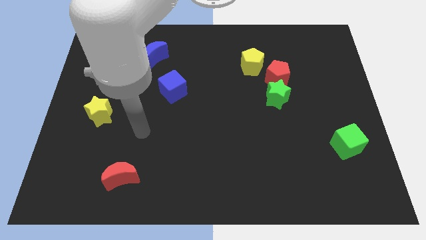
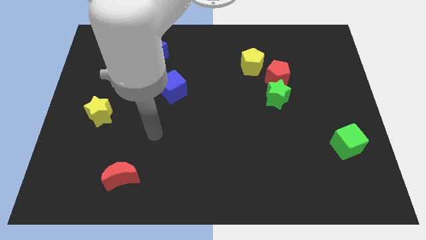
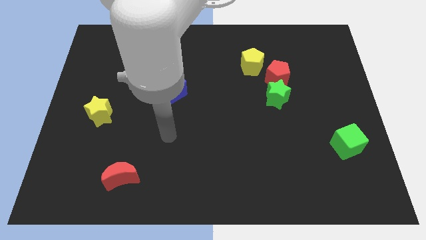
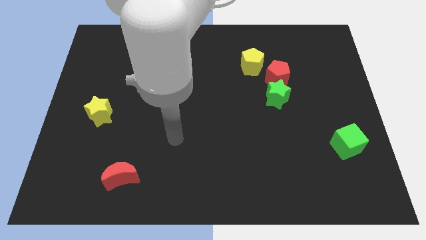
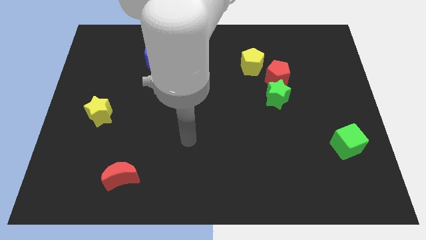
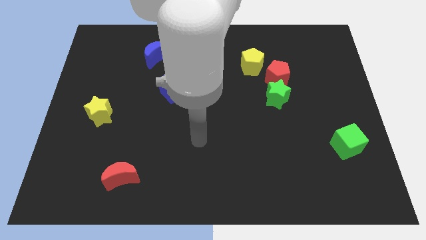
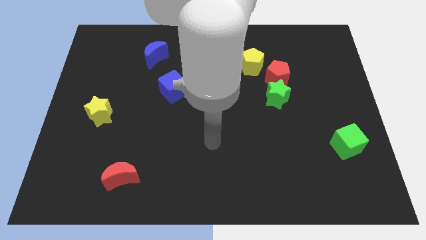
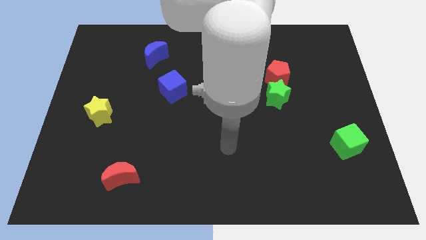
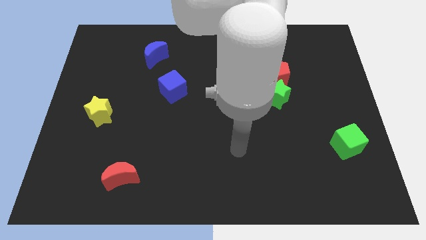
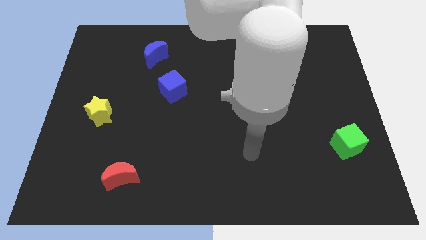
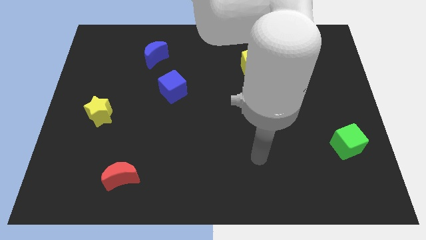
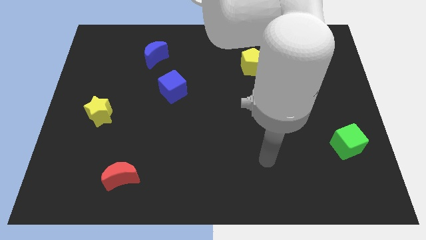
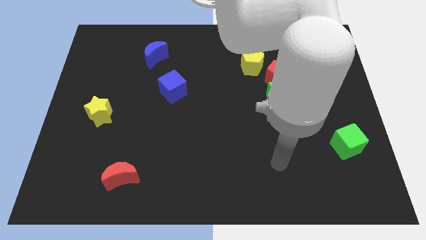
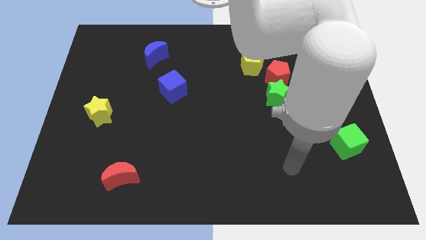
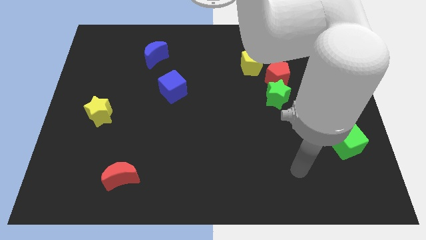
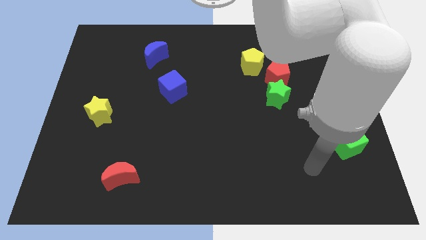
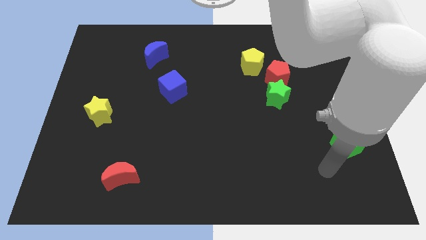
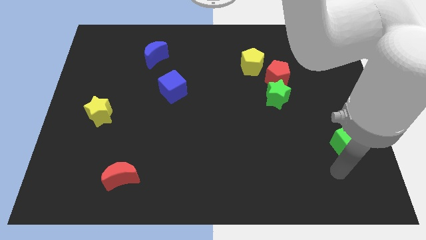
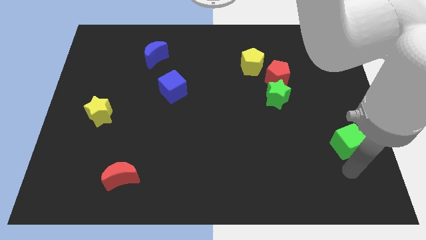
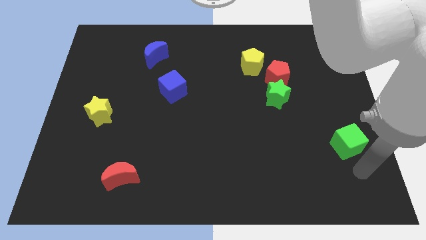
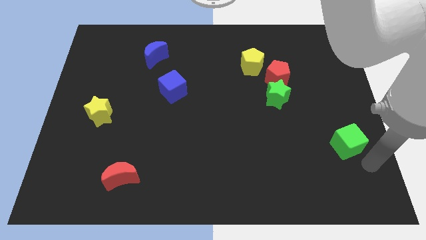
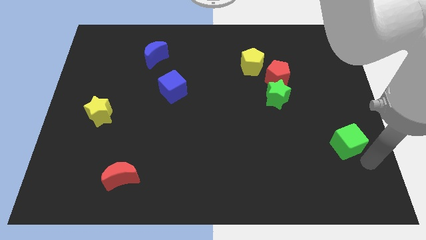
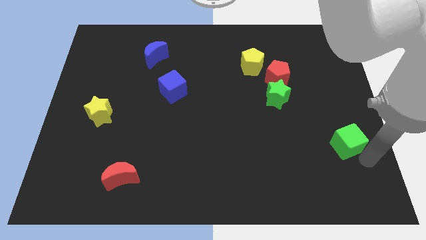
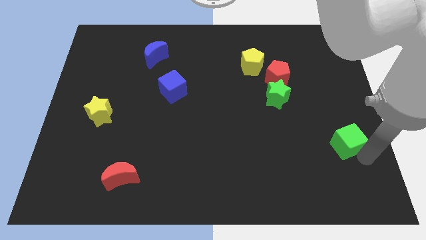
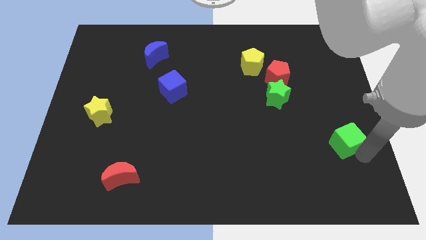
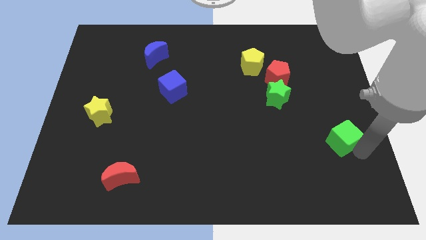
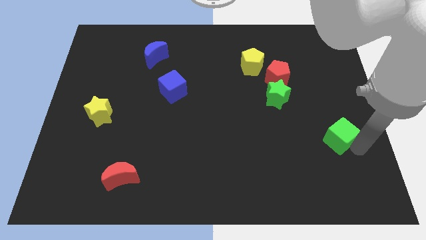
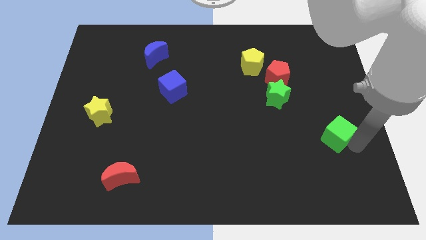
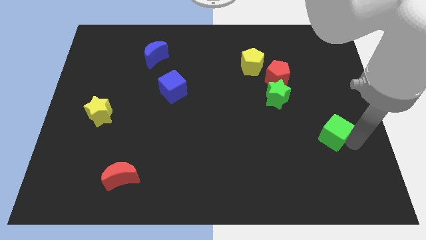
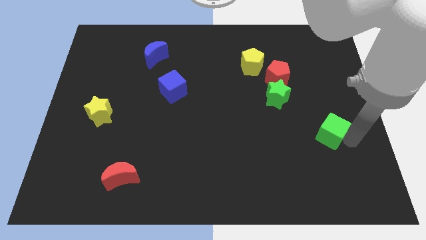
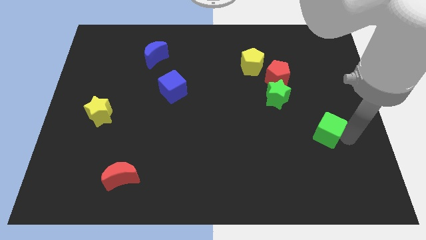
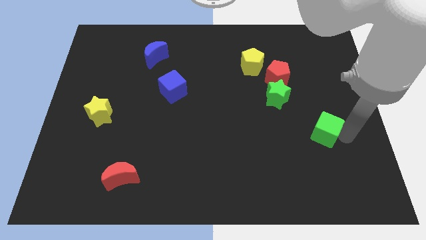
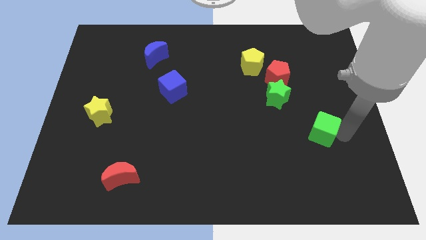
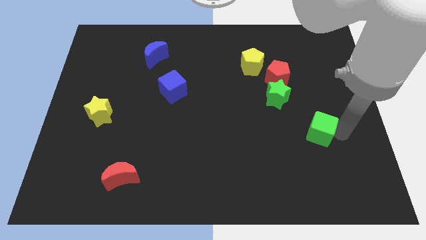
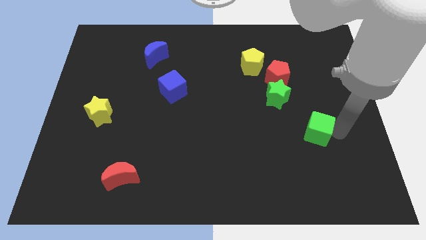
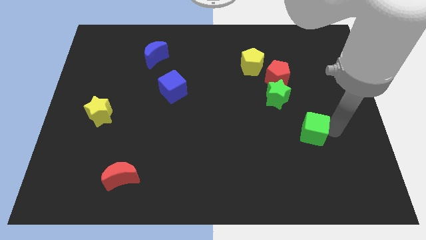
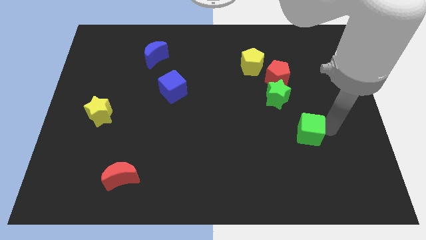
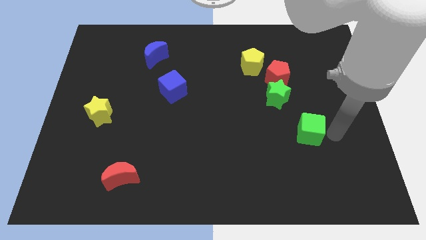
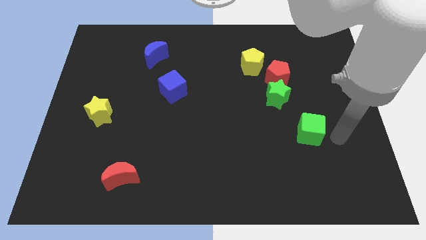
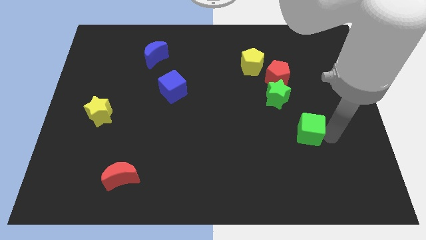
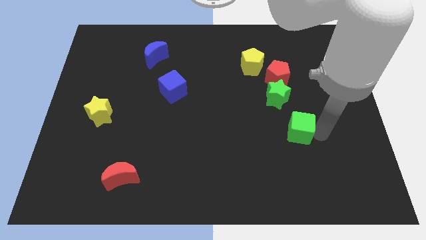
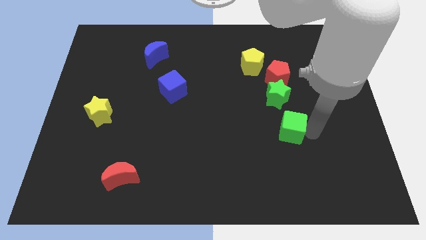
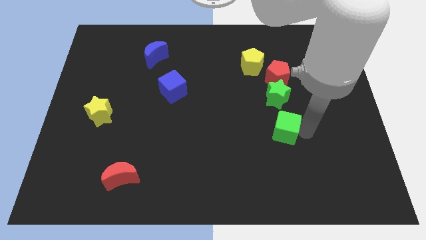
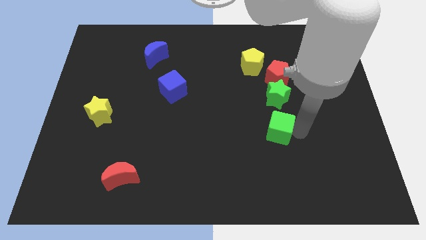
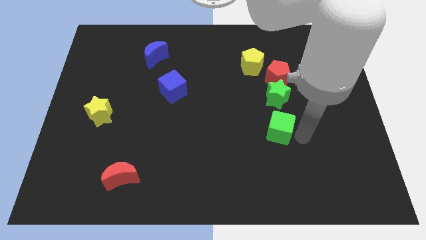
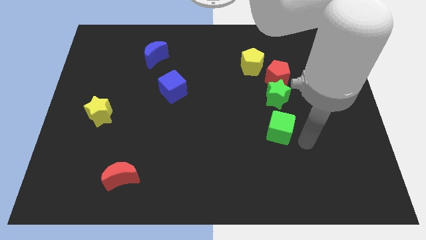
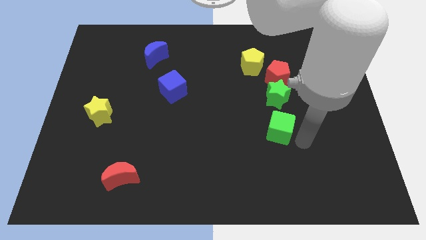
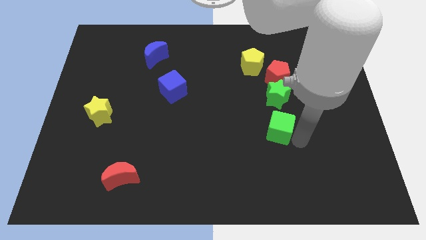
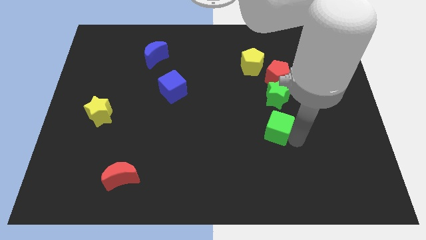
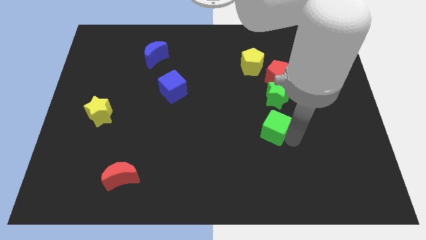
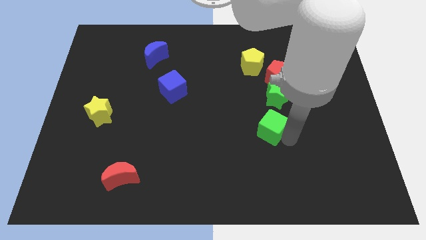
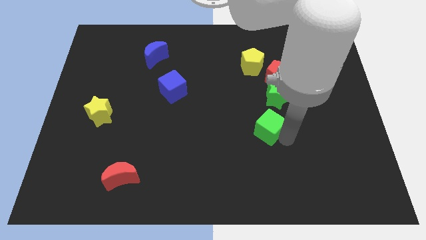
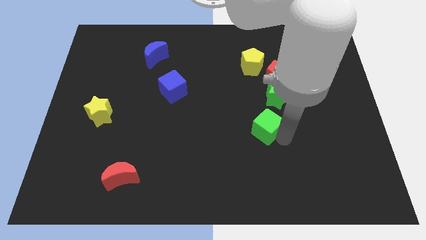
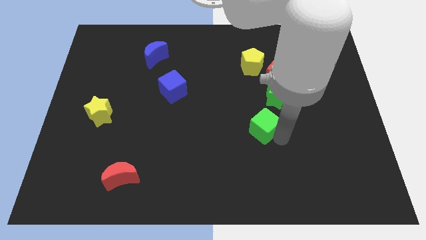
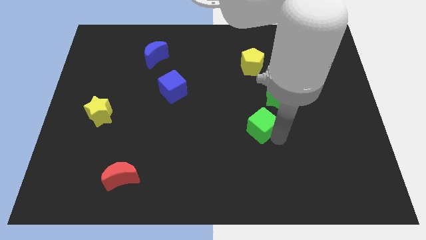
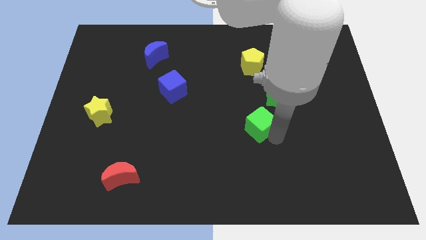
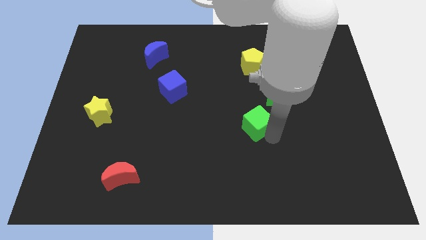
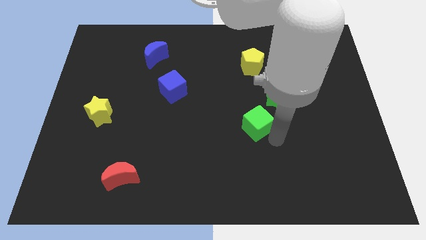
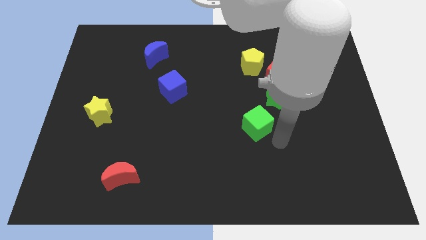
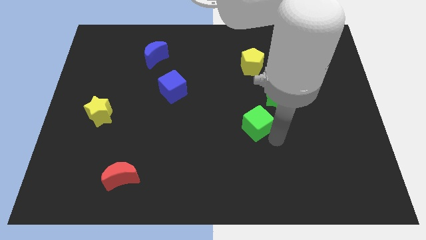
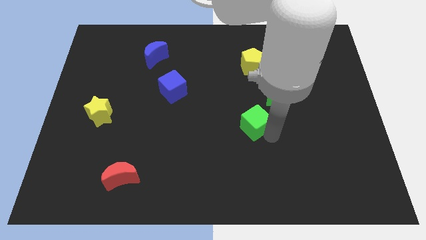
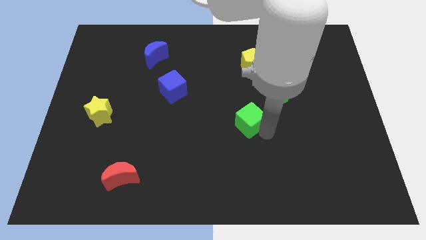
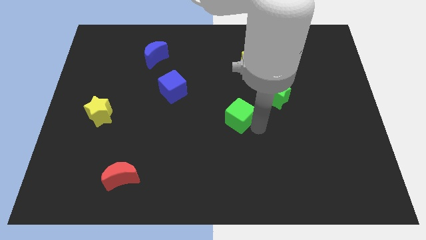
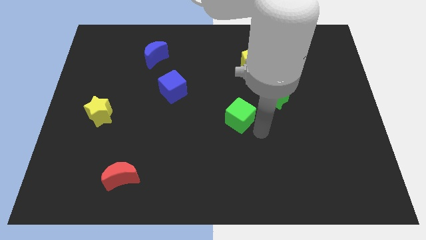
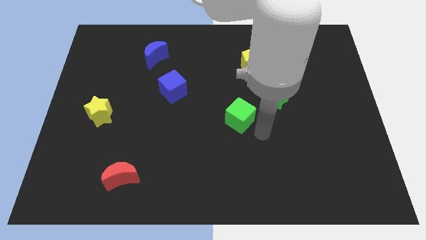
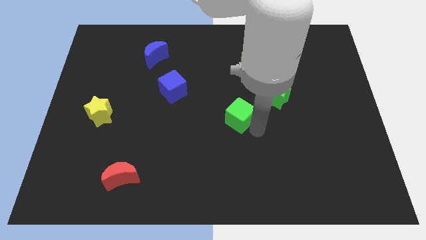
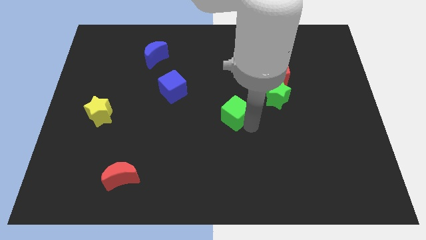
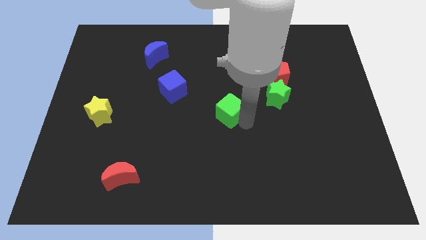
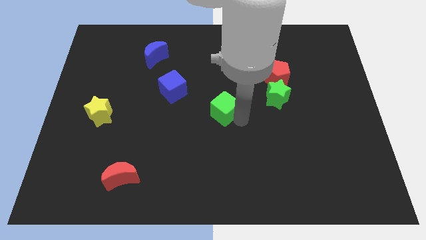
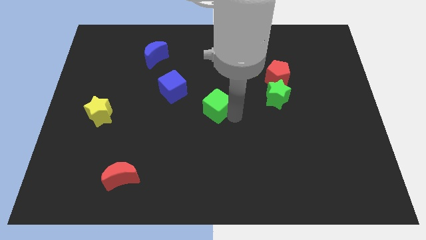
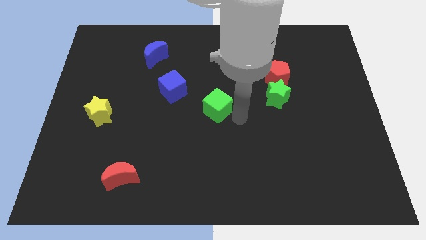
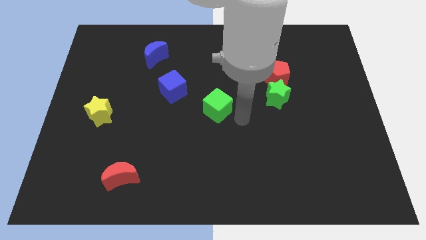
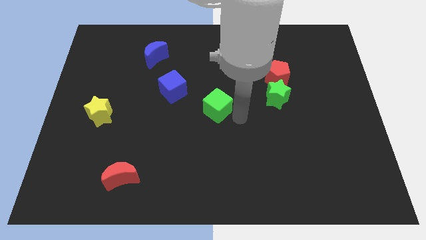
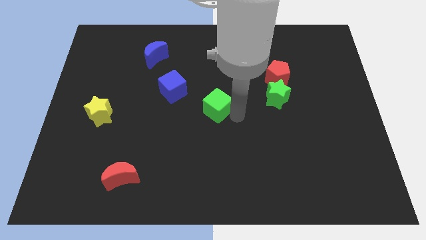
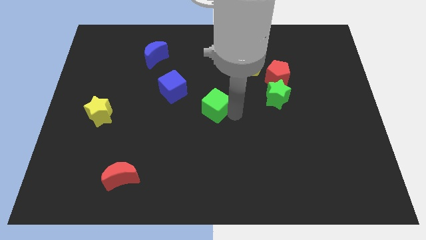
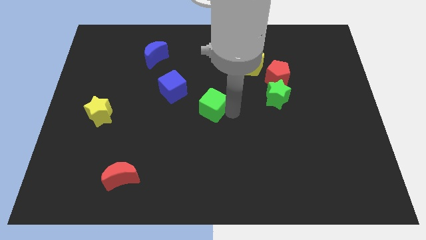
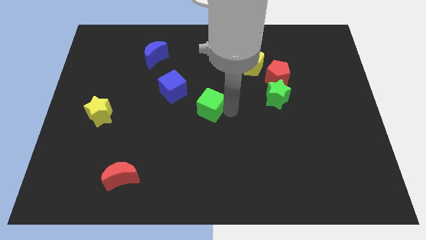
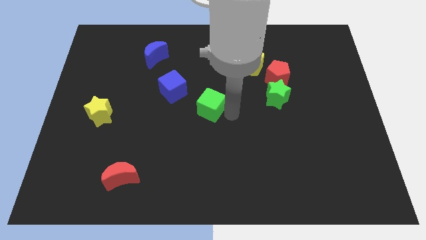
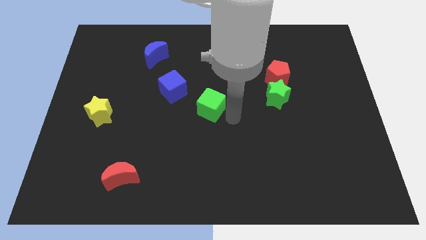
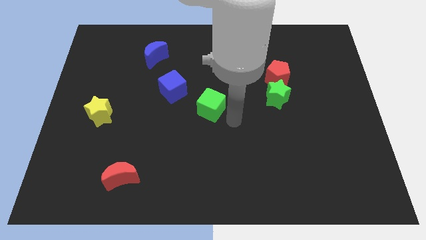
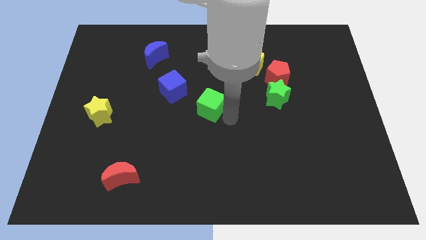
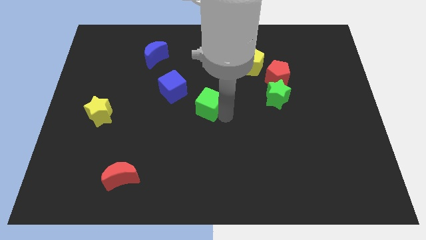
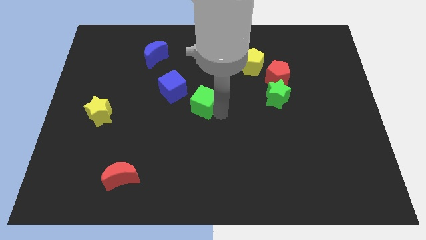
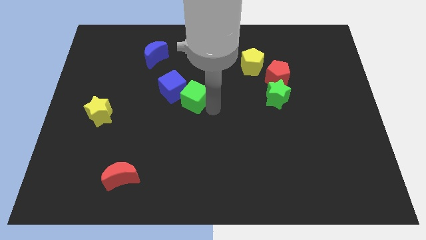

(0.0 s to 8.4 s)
slide the green cube next to the blue cube

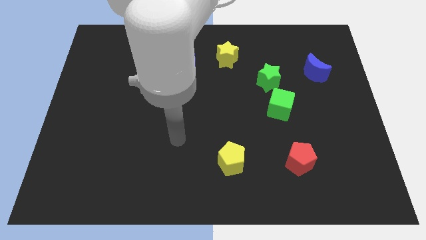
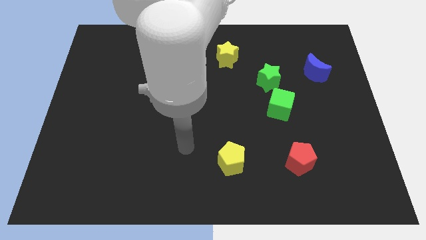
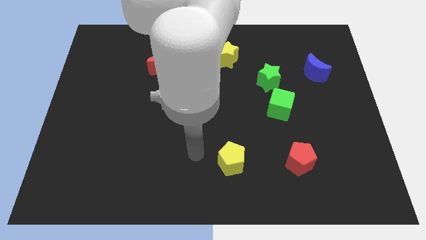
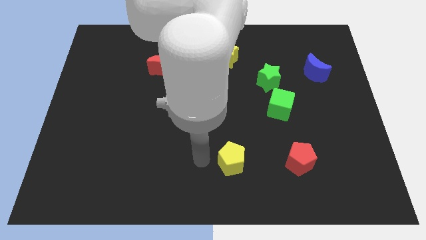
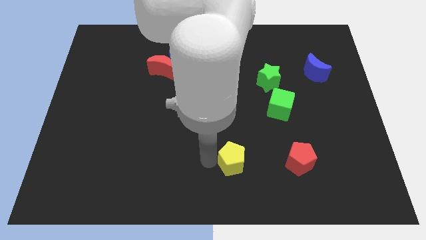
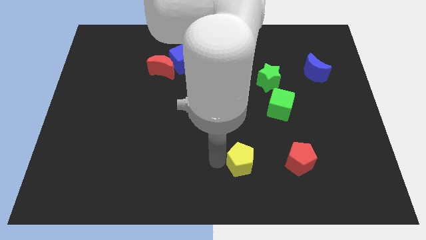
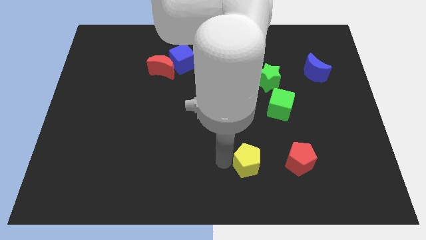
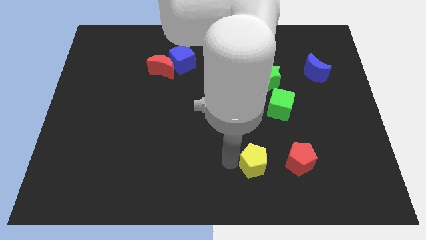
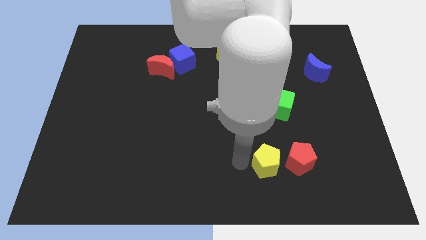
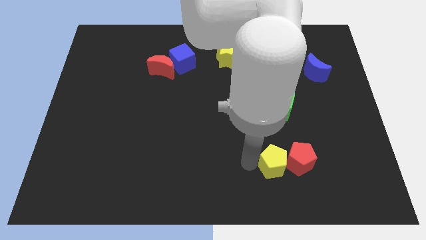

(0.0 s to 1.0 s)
push the yellow pentagon close to the red pentagon
